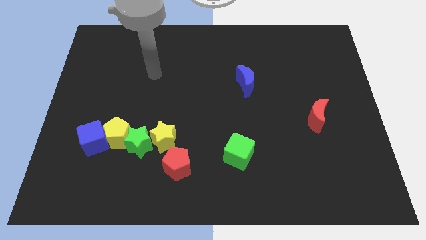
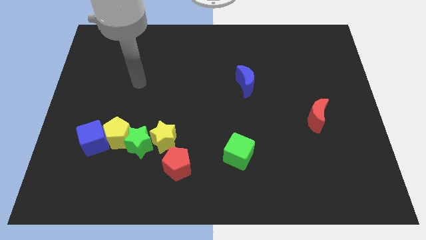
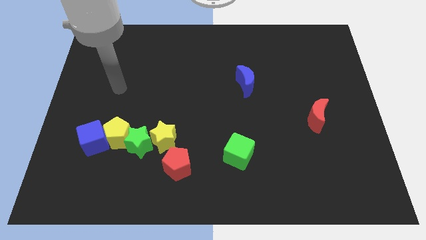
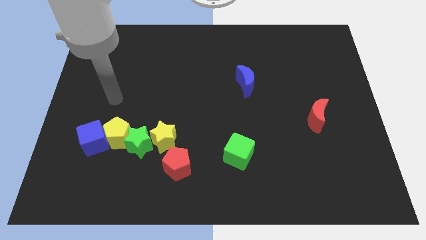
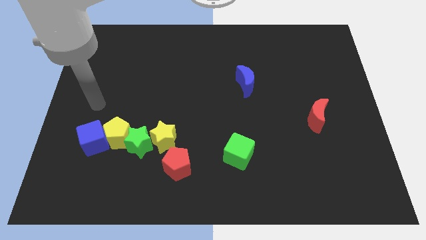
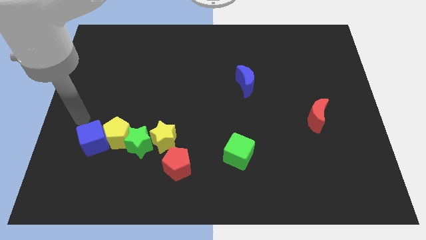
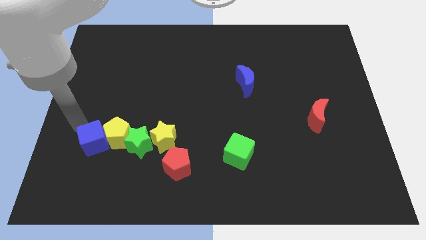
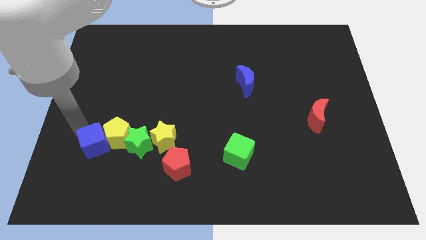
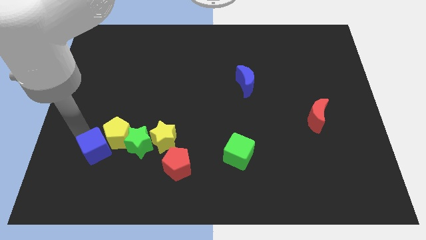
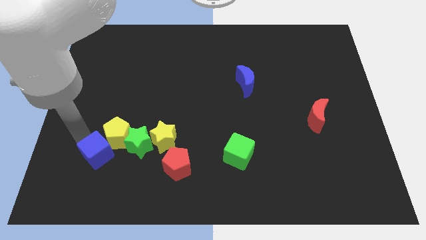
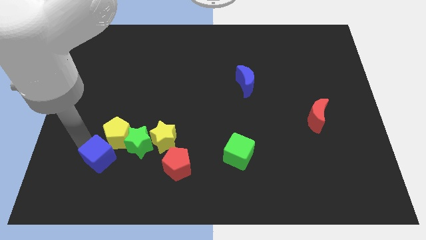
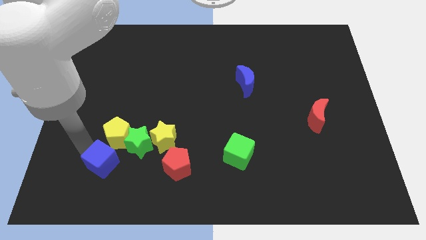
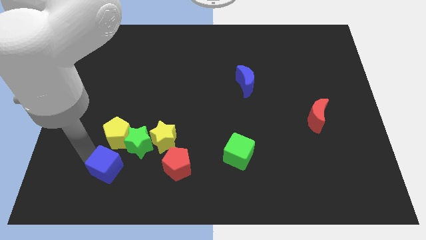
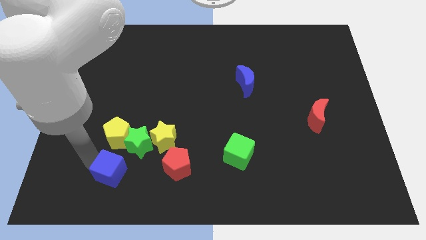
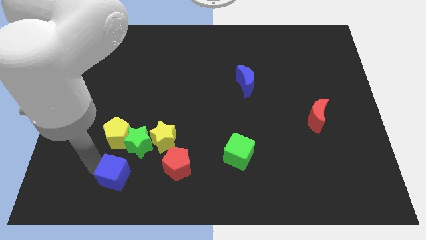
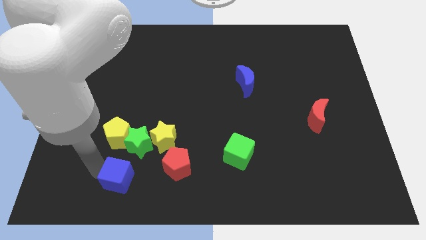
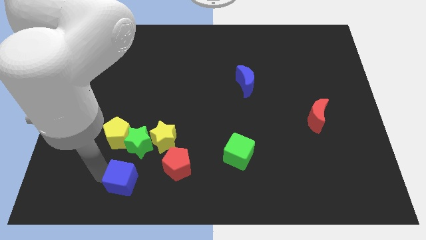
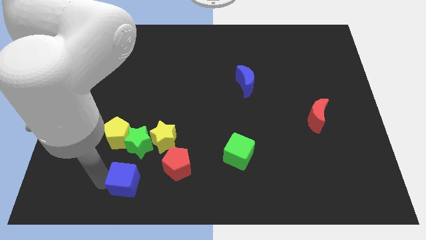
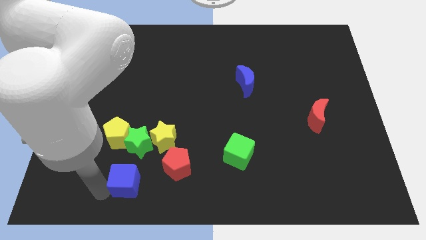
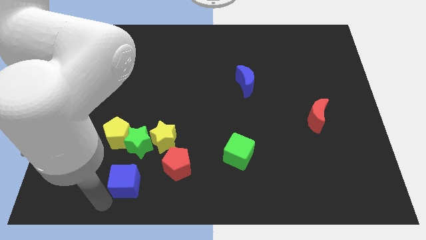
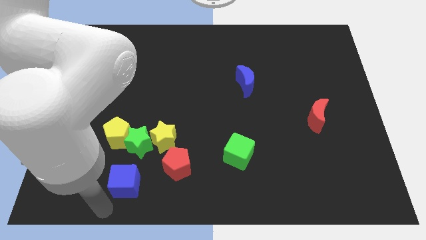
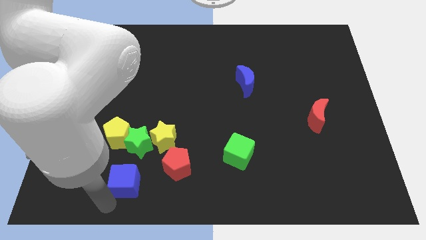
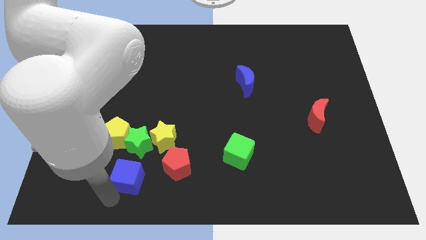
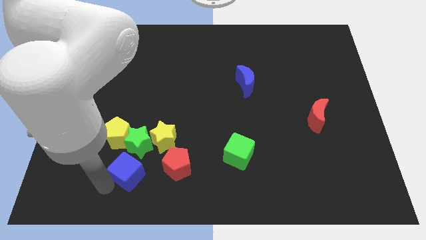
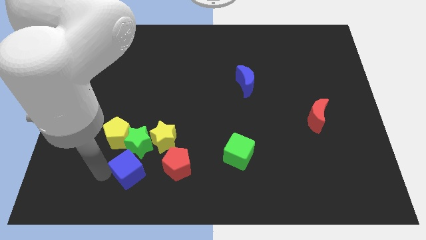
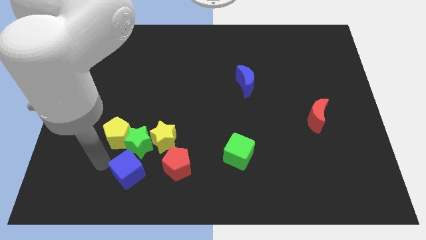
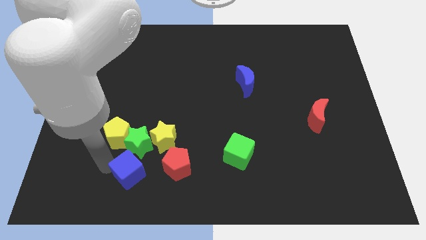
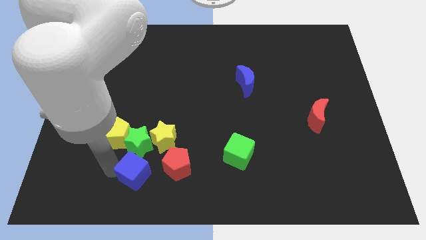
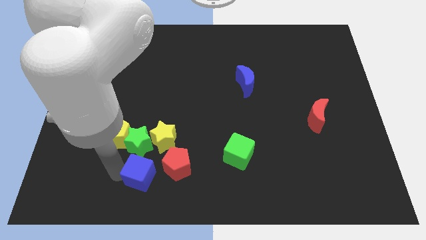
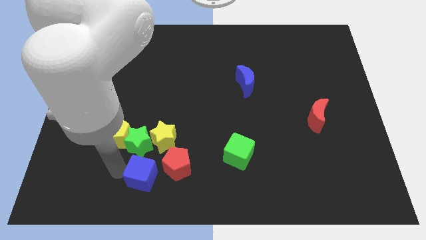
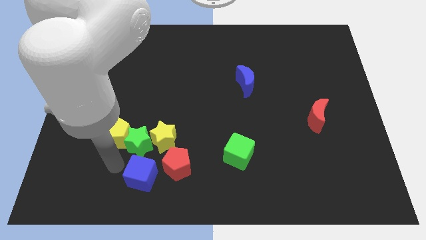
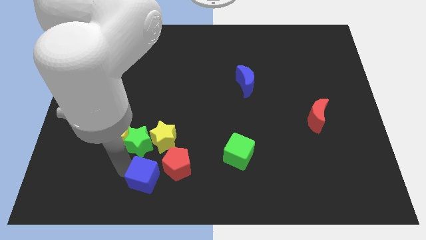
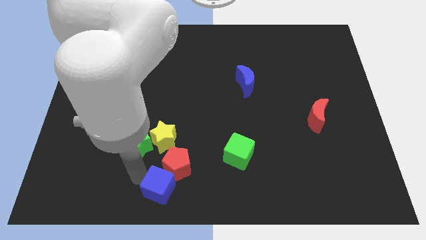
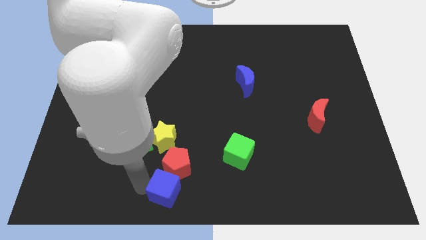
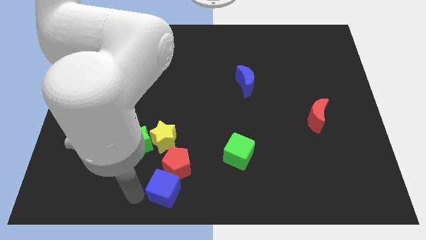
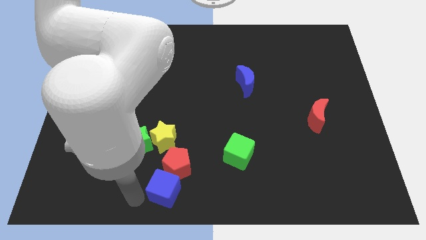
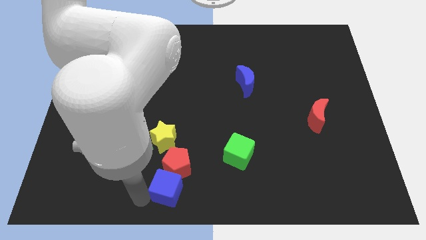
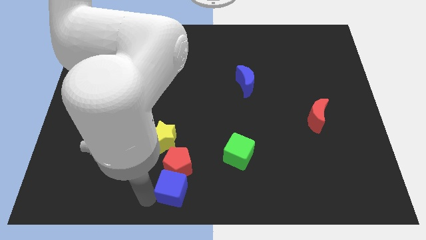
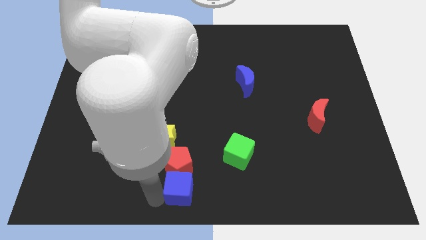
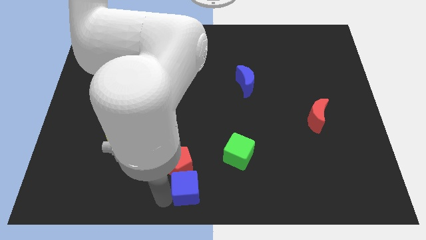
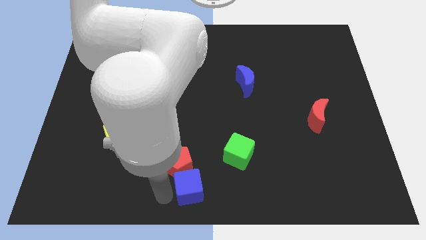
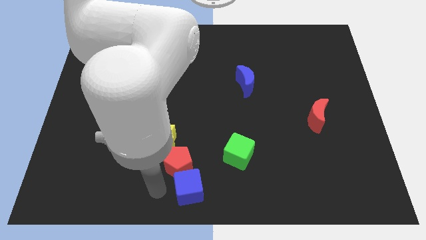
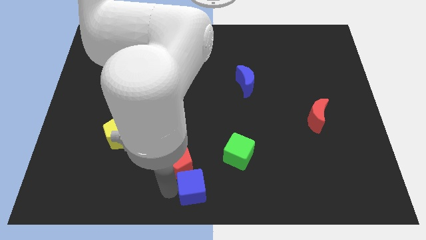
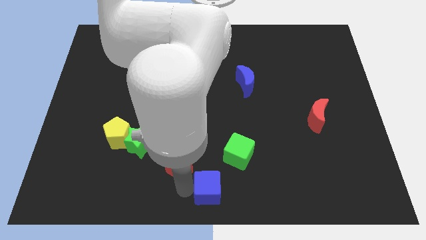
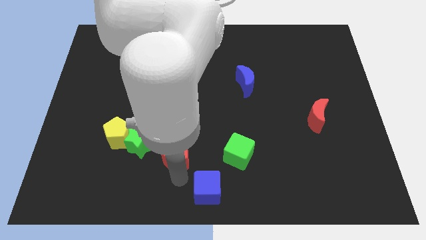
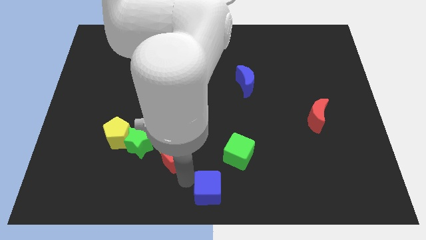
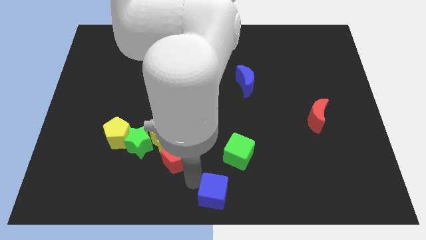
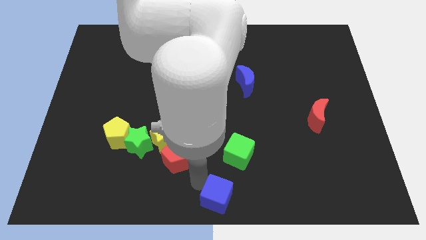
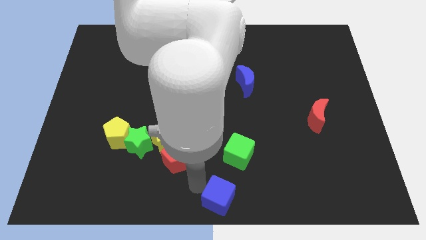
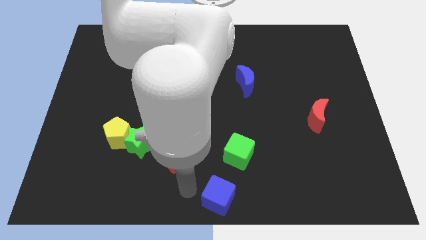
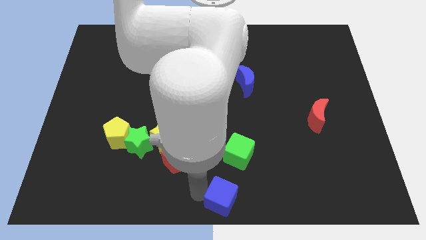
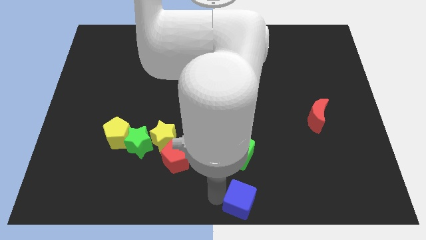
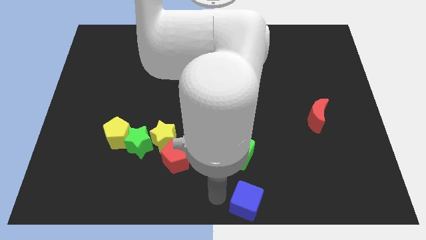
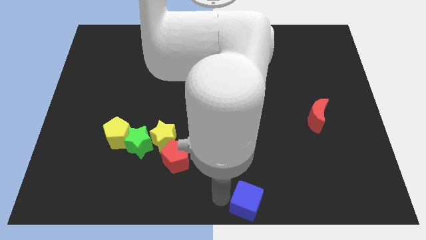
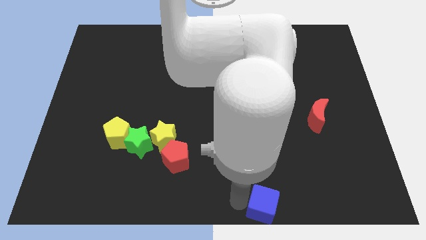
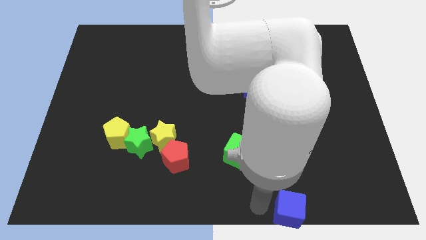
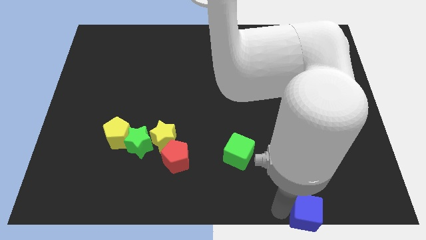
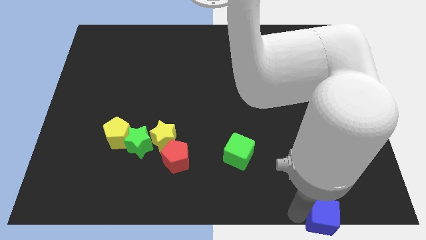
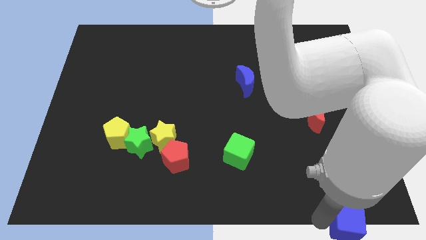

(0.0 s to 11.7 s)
slide the blue cube to the lower right corner

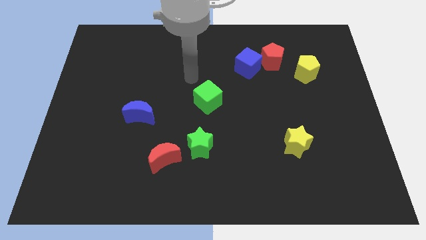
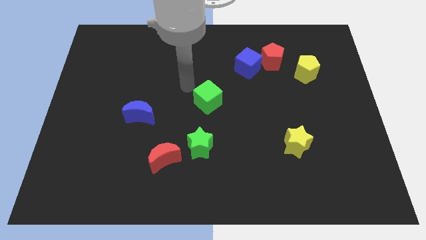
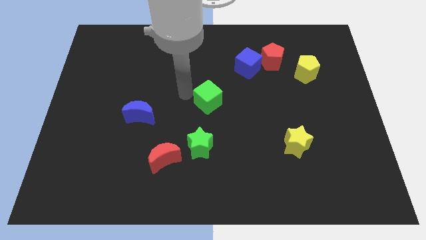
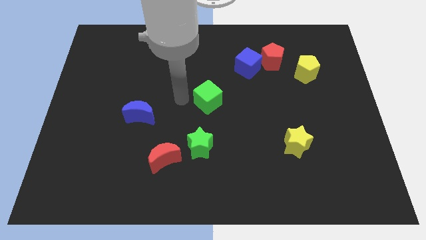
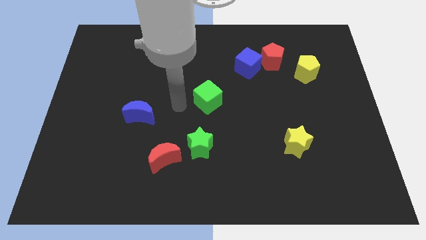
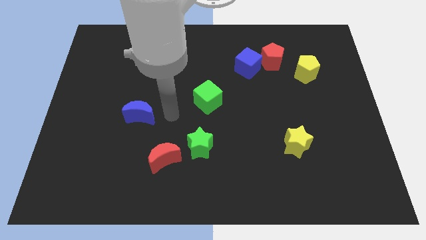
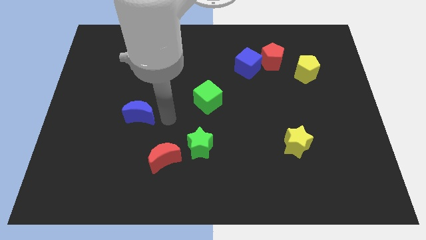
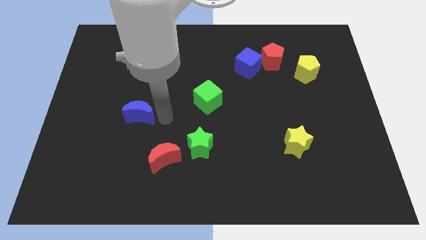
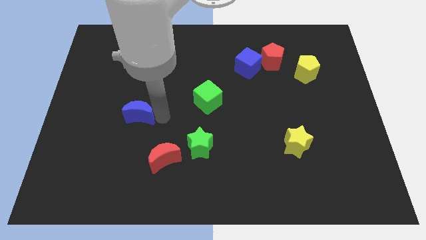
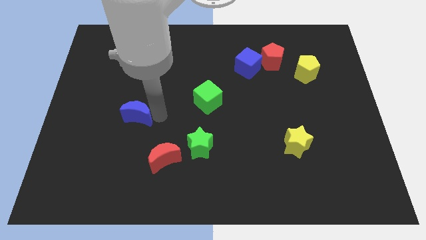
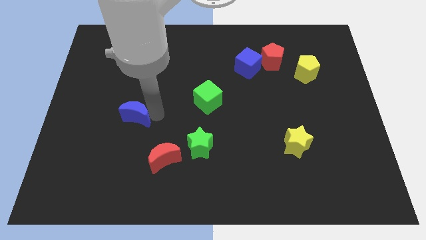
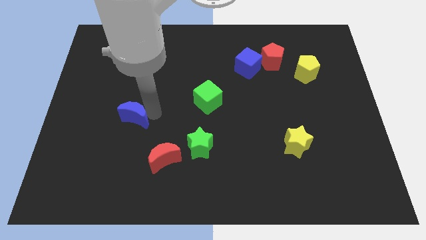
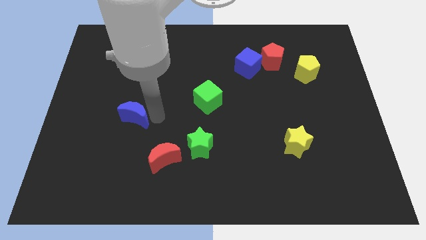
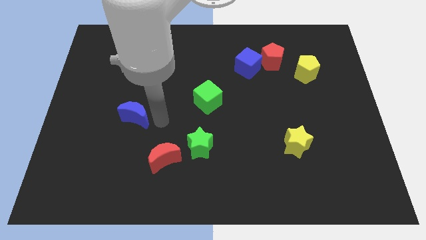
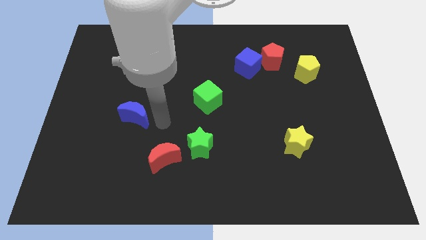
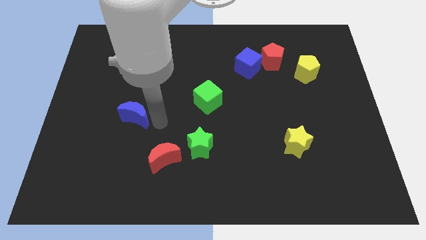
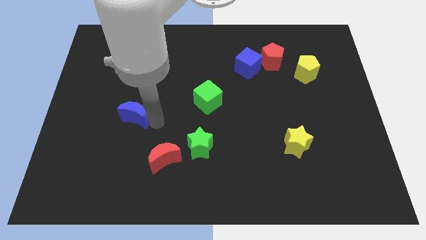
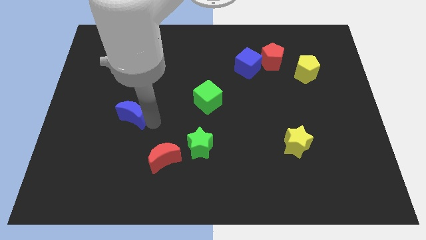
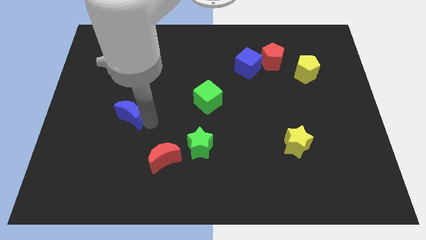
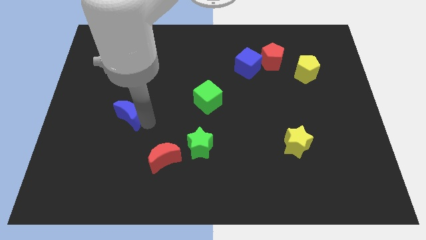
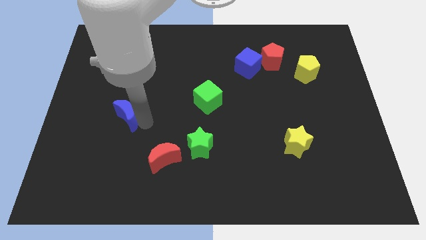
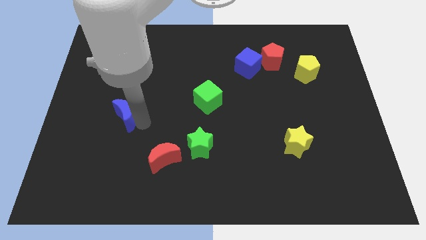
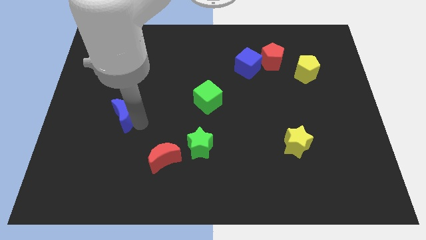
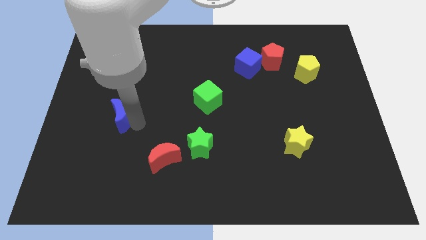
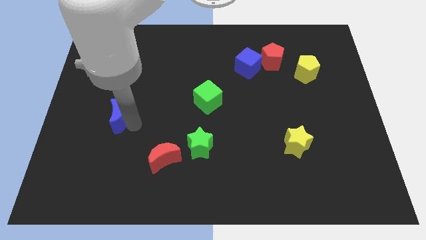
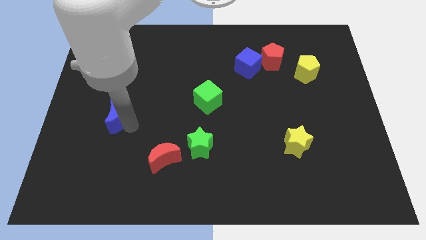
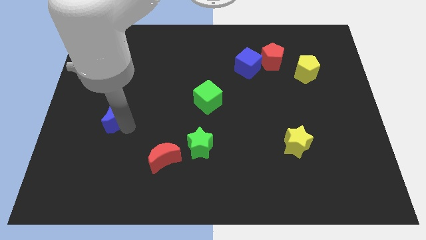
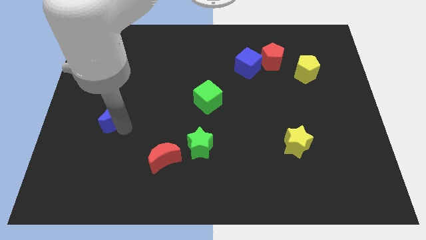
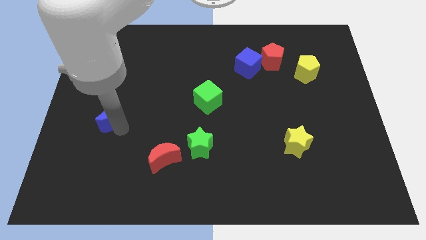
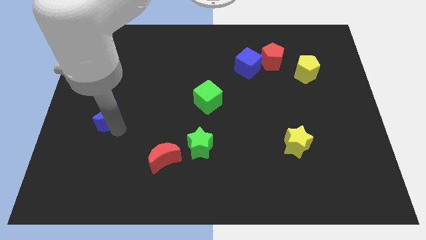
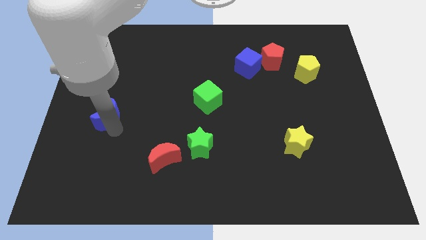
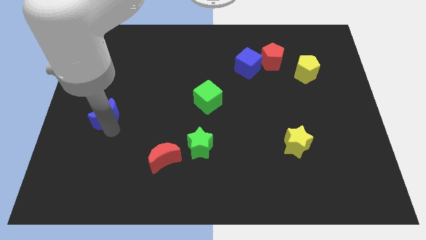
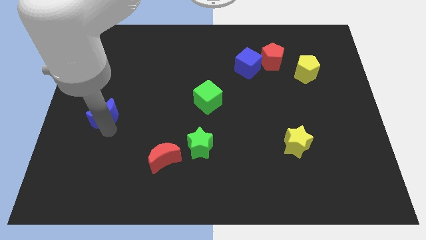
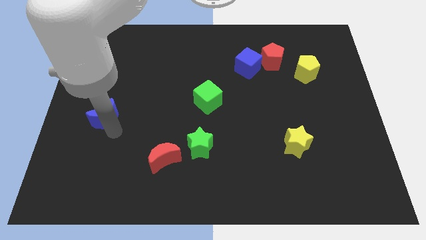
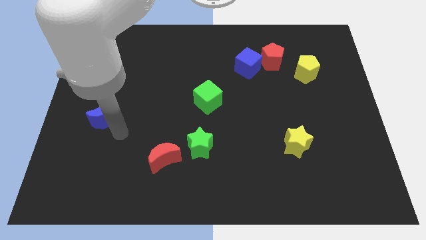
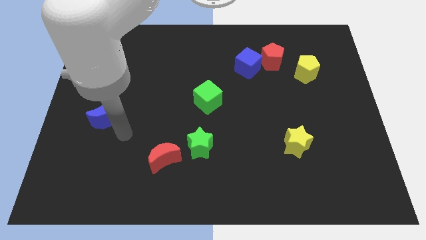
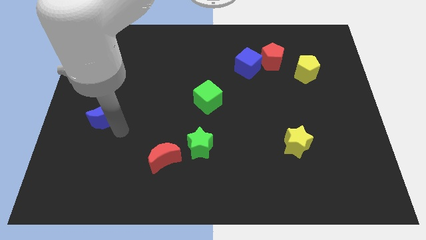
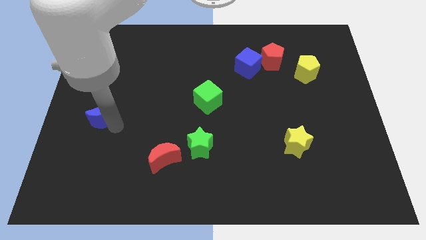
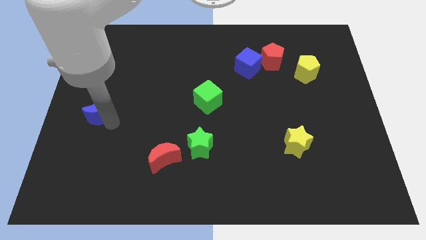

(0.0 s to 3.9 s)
put the blue moon to the left side
